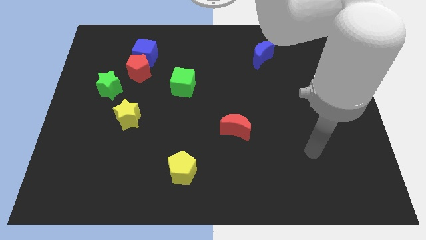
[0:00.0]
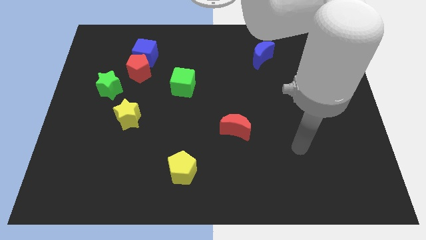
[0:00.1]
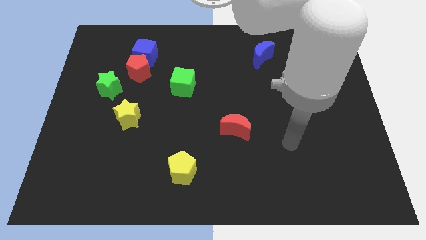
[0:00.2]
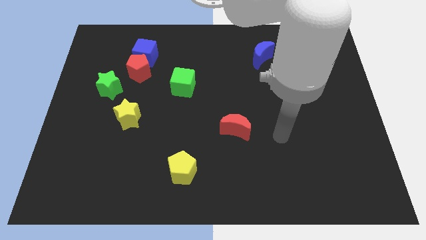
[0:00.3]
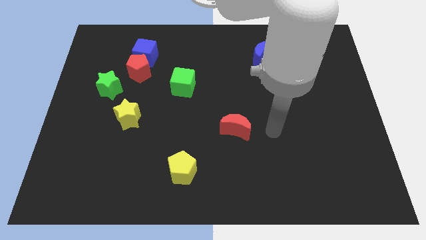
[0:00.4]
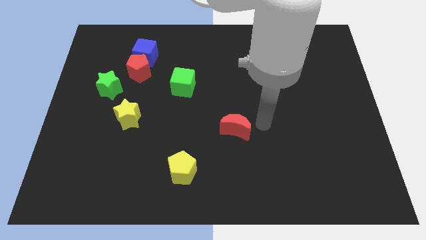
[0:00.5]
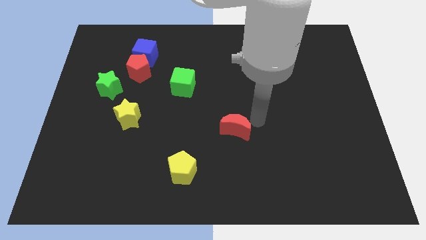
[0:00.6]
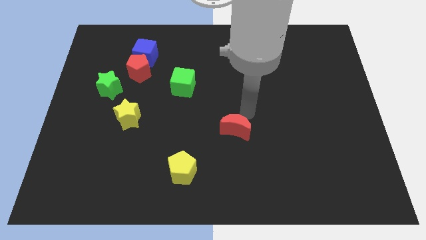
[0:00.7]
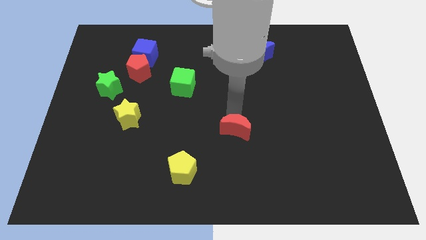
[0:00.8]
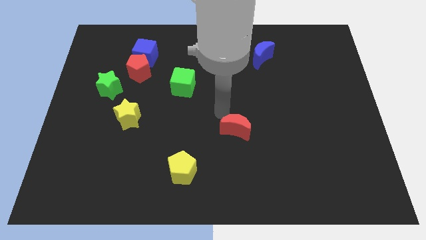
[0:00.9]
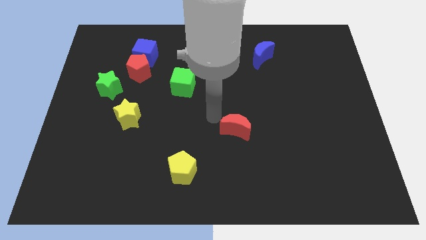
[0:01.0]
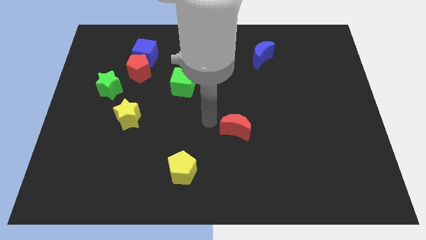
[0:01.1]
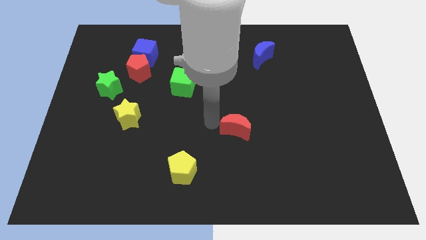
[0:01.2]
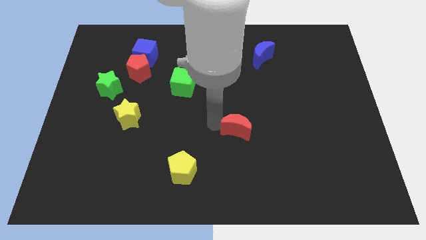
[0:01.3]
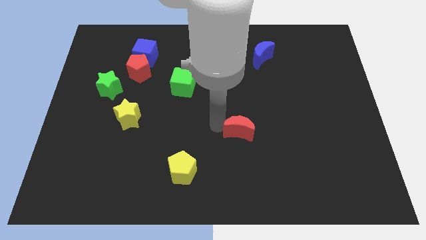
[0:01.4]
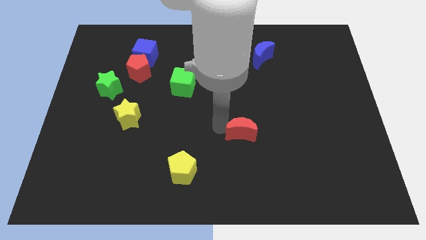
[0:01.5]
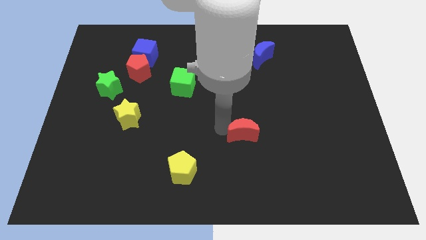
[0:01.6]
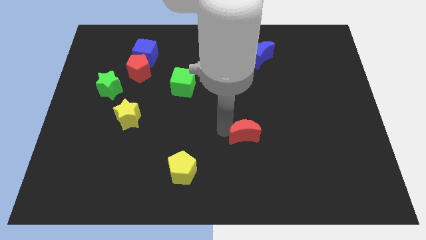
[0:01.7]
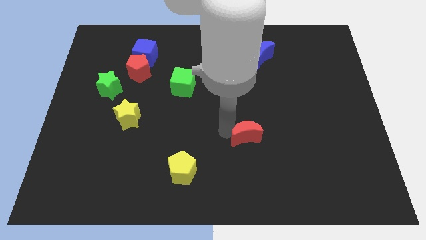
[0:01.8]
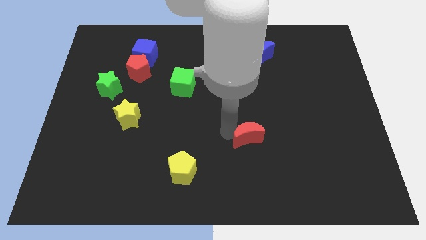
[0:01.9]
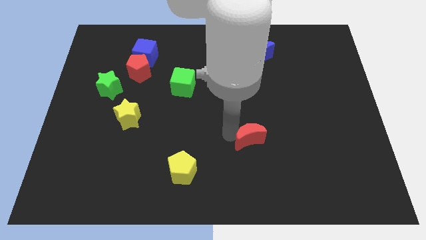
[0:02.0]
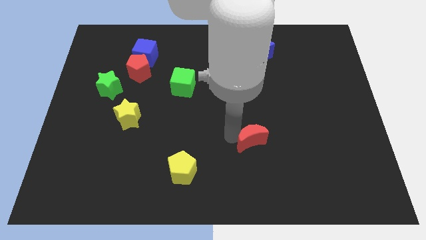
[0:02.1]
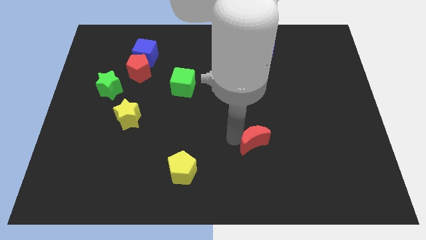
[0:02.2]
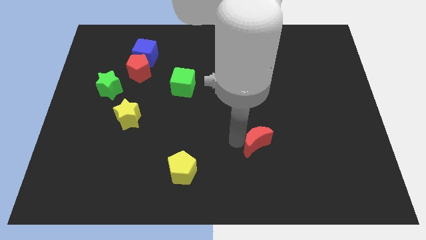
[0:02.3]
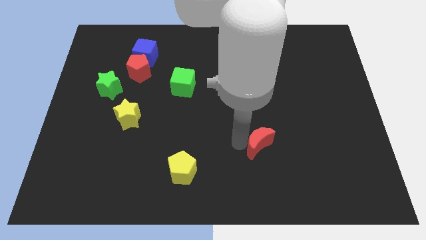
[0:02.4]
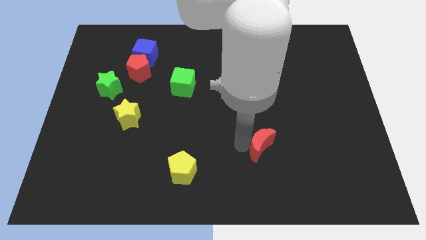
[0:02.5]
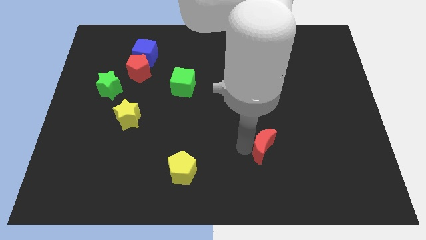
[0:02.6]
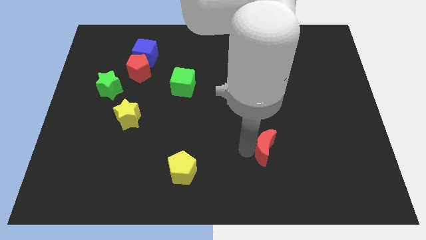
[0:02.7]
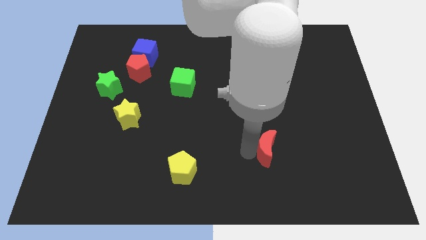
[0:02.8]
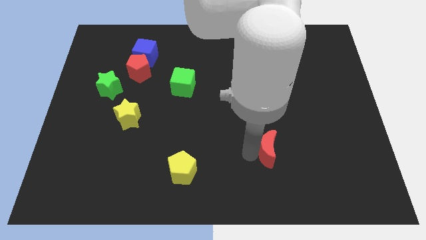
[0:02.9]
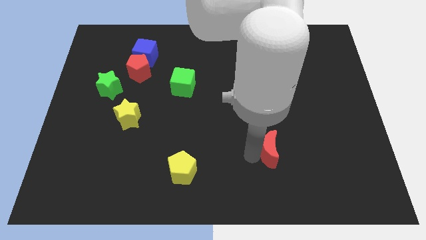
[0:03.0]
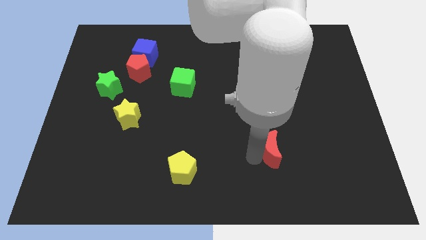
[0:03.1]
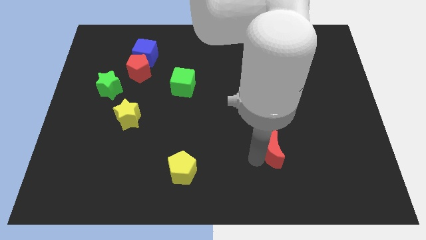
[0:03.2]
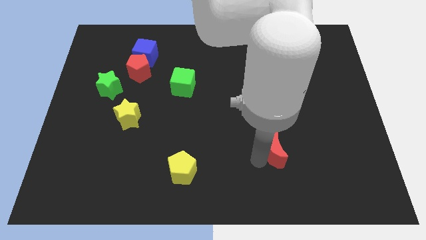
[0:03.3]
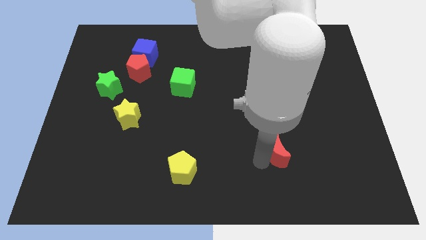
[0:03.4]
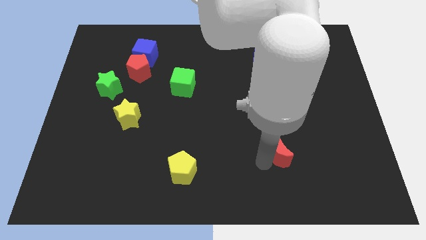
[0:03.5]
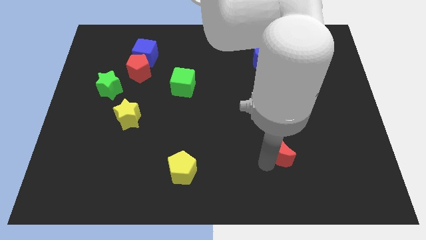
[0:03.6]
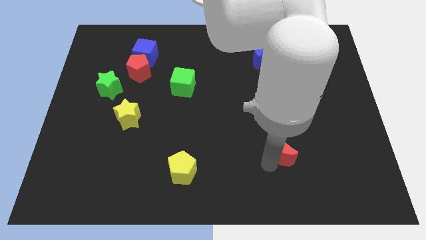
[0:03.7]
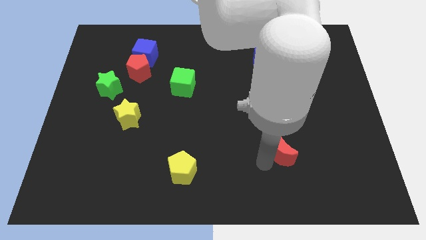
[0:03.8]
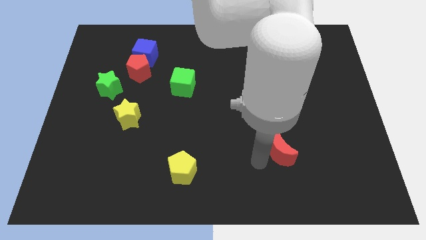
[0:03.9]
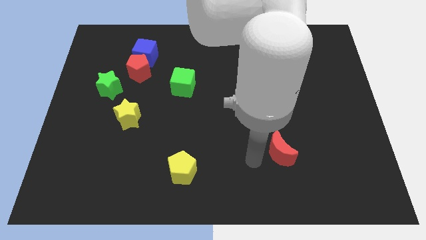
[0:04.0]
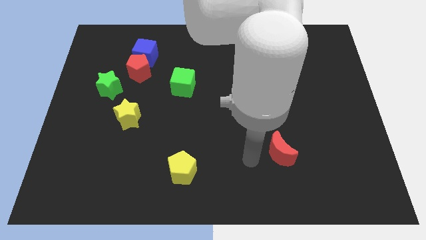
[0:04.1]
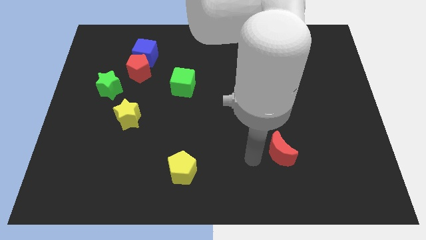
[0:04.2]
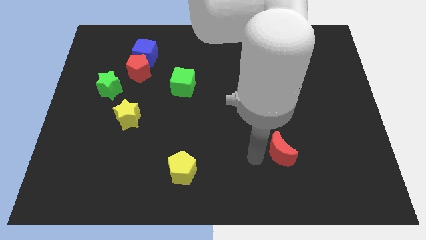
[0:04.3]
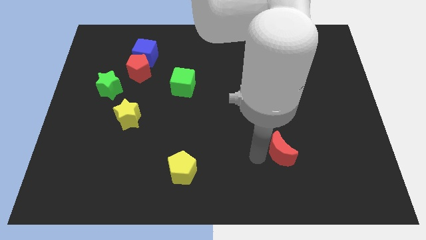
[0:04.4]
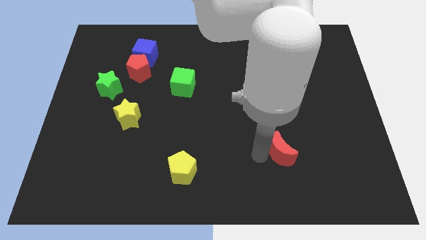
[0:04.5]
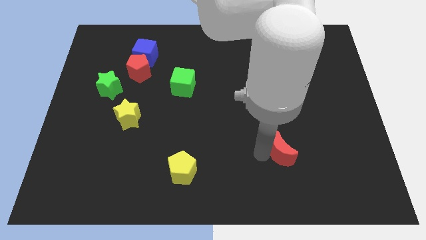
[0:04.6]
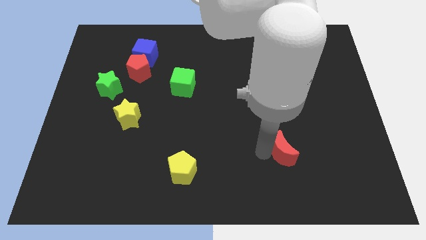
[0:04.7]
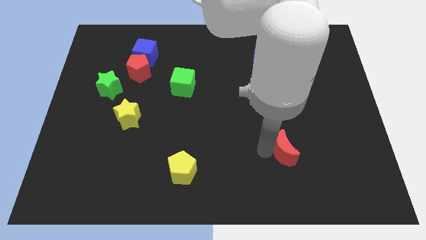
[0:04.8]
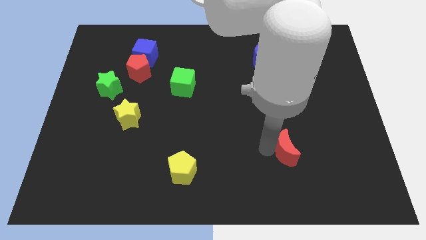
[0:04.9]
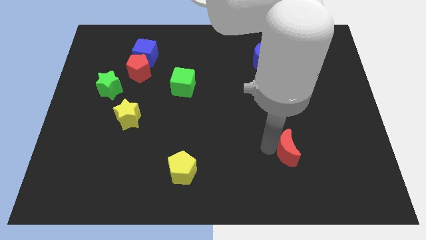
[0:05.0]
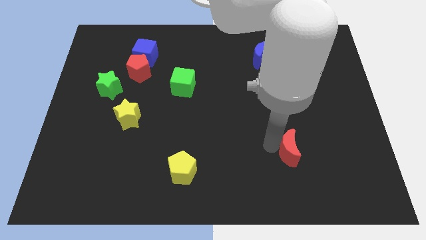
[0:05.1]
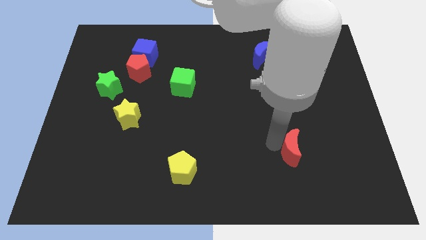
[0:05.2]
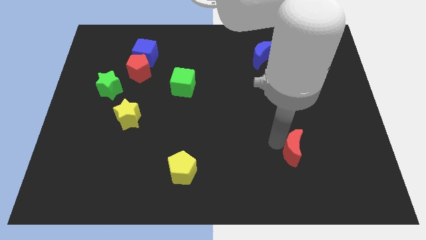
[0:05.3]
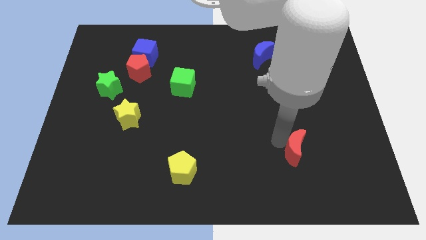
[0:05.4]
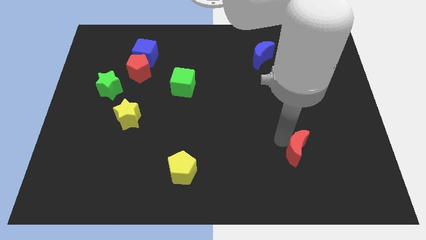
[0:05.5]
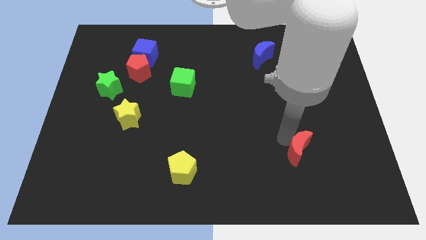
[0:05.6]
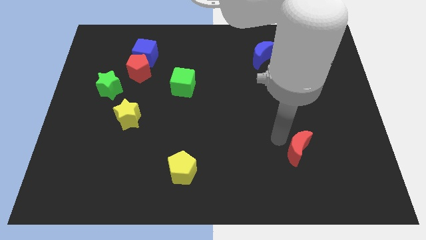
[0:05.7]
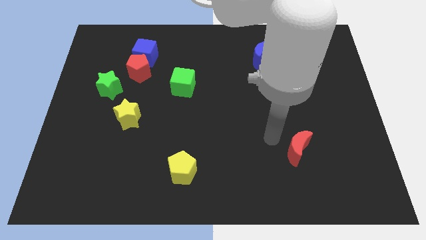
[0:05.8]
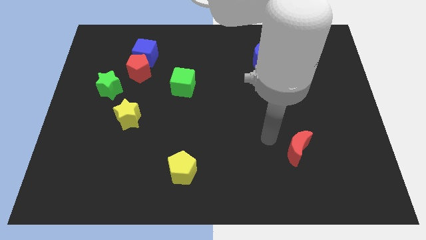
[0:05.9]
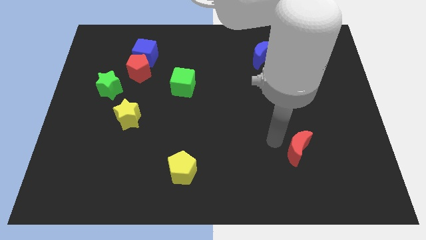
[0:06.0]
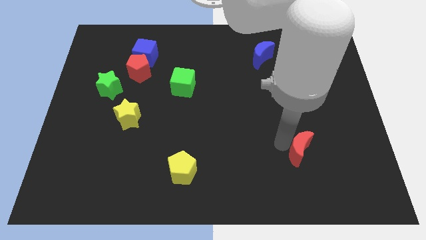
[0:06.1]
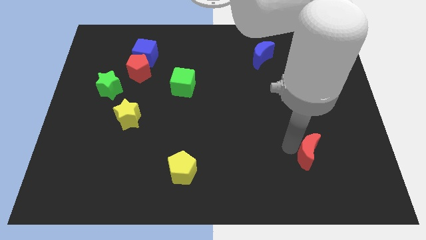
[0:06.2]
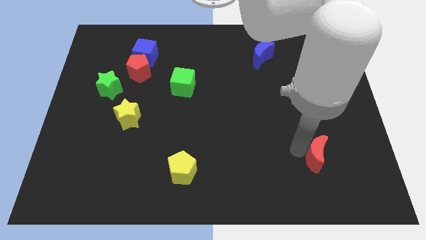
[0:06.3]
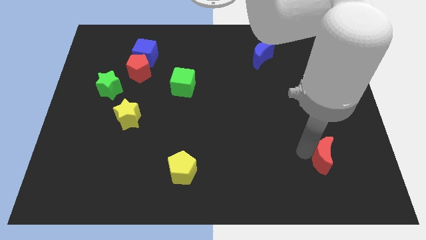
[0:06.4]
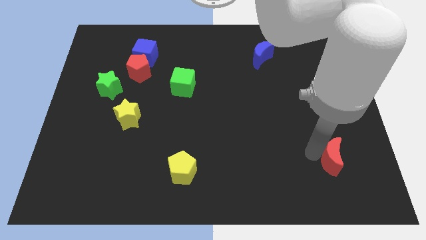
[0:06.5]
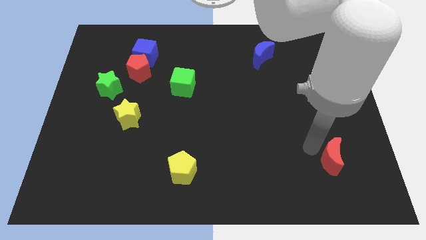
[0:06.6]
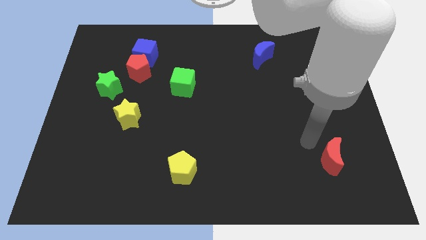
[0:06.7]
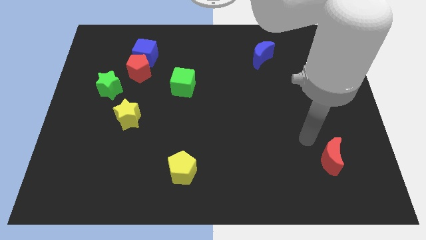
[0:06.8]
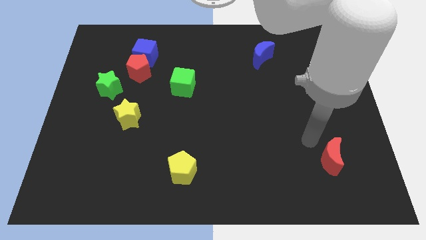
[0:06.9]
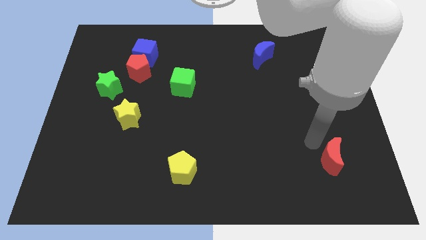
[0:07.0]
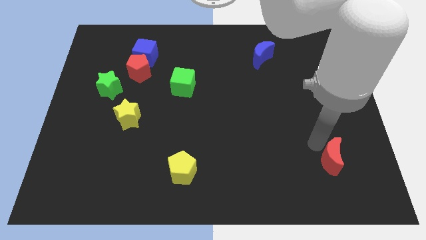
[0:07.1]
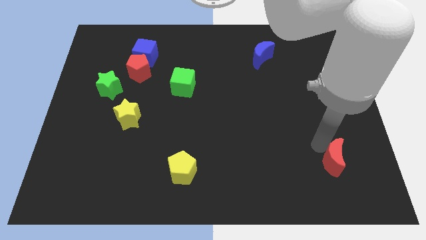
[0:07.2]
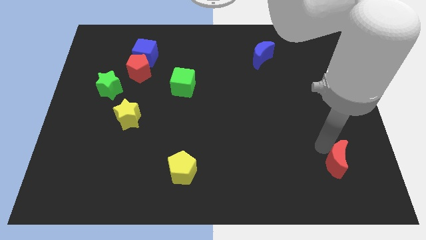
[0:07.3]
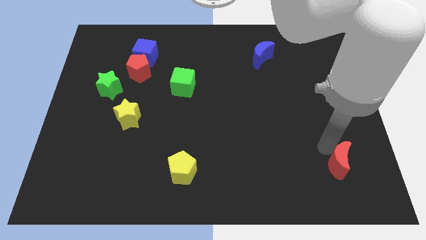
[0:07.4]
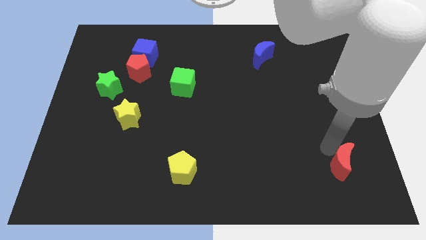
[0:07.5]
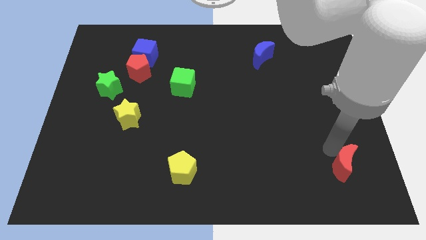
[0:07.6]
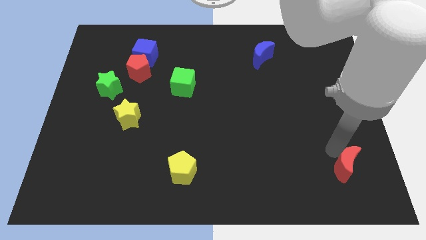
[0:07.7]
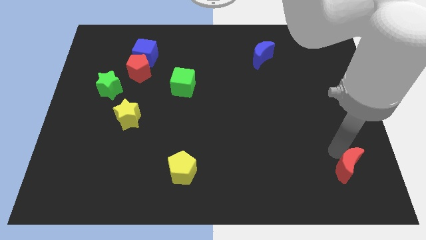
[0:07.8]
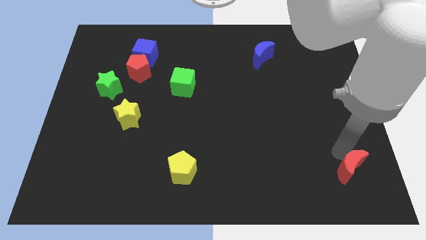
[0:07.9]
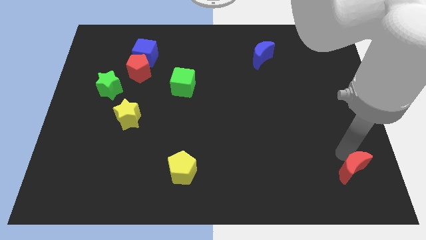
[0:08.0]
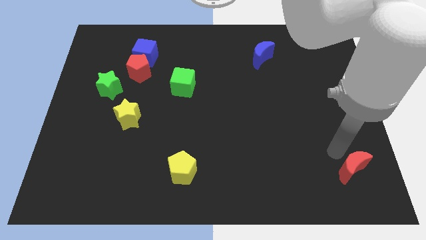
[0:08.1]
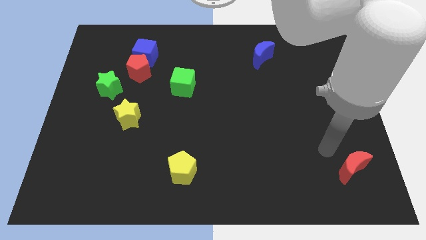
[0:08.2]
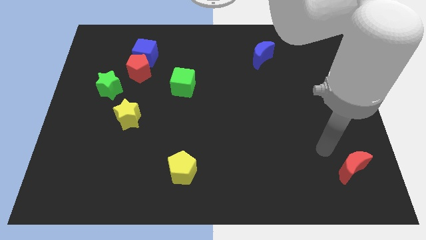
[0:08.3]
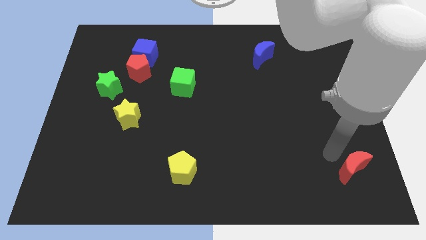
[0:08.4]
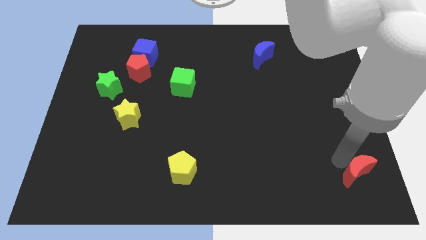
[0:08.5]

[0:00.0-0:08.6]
move the red moon to the bottom right
